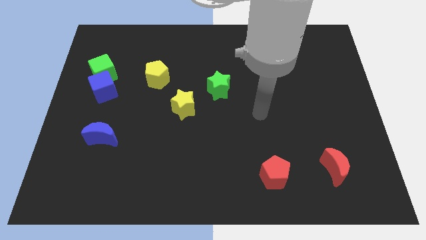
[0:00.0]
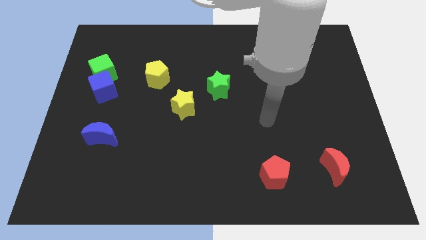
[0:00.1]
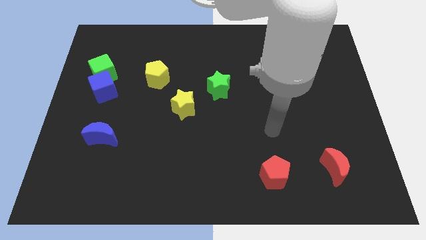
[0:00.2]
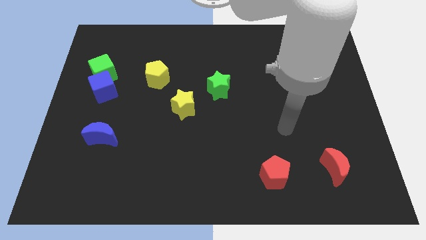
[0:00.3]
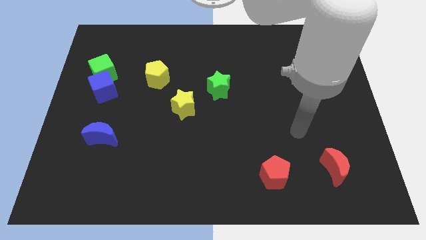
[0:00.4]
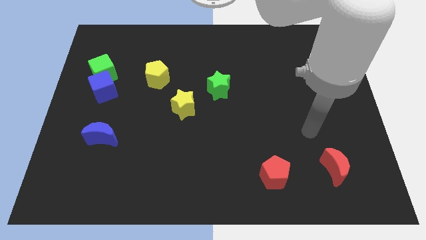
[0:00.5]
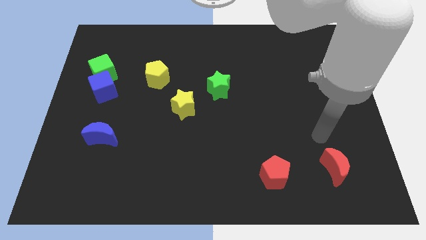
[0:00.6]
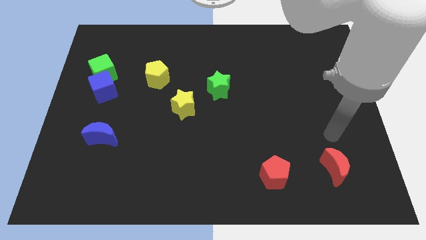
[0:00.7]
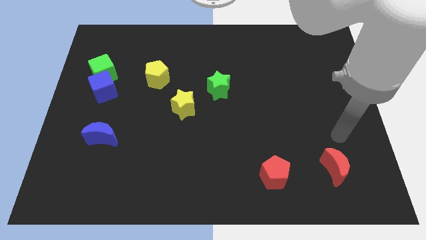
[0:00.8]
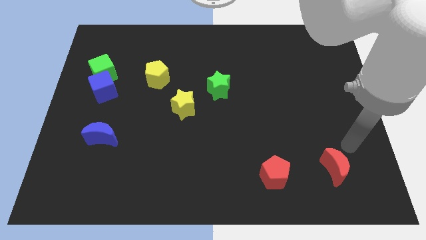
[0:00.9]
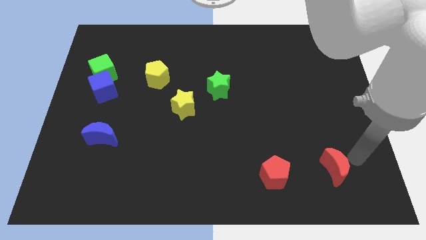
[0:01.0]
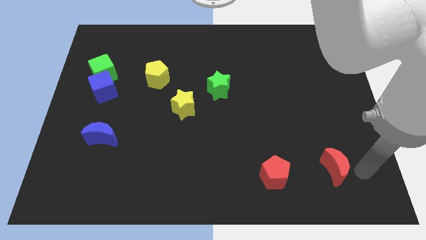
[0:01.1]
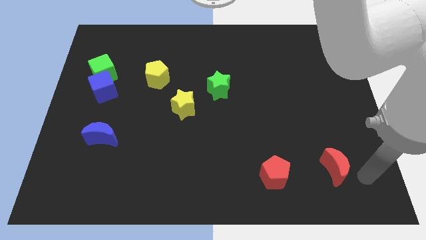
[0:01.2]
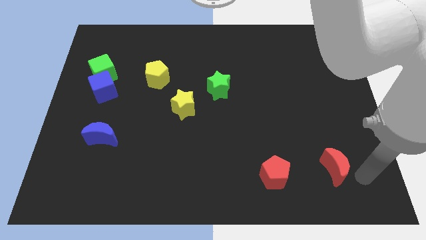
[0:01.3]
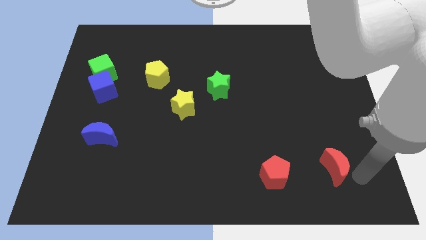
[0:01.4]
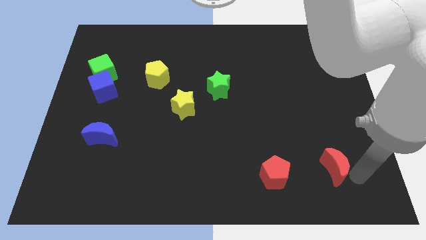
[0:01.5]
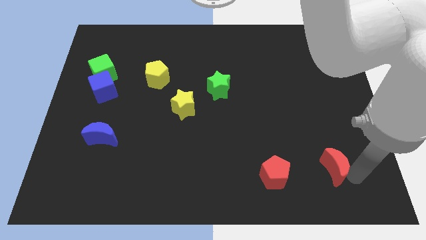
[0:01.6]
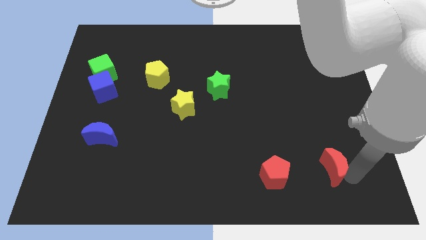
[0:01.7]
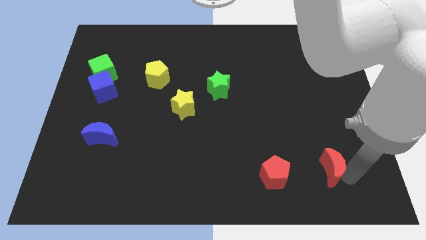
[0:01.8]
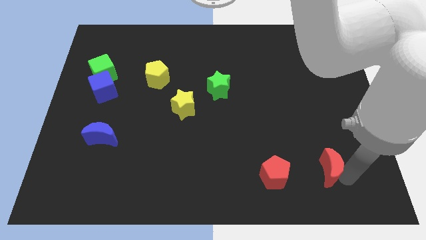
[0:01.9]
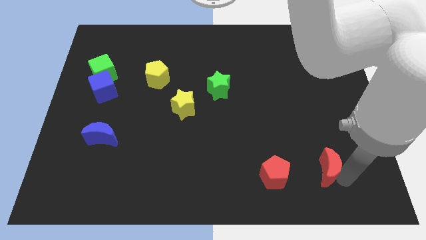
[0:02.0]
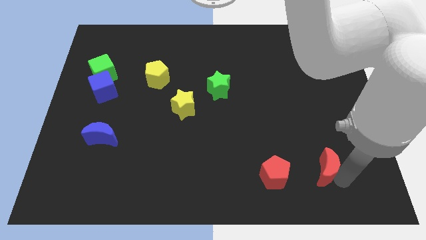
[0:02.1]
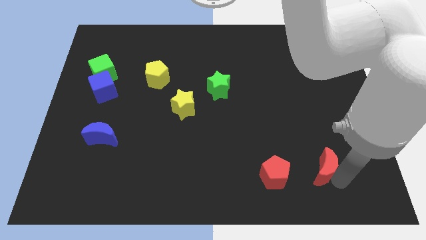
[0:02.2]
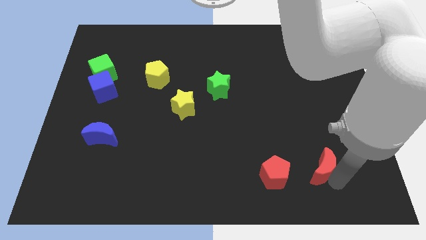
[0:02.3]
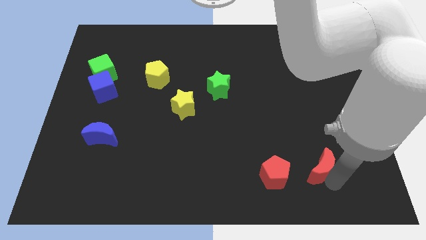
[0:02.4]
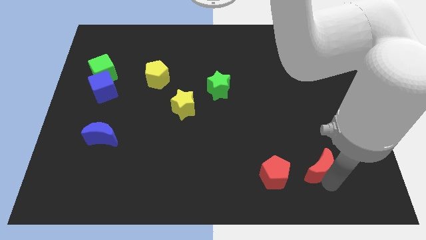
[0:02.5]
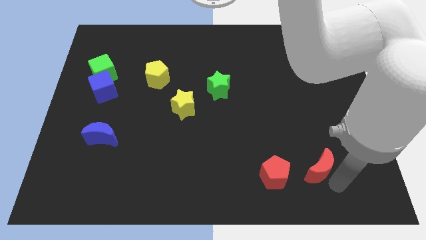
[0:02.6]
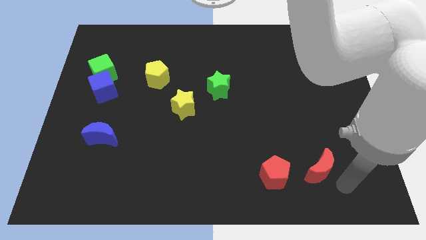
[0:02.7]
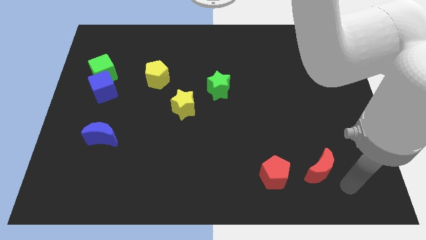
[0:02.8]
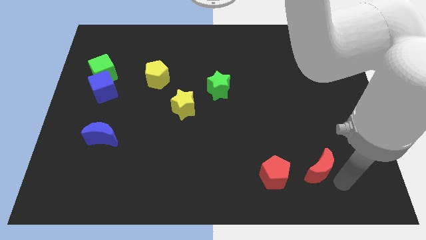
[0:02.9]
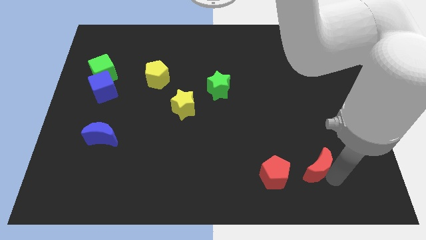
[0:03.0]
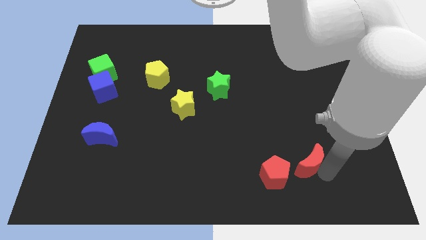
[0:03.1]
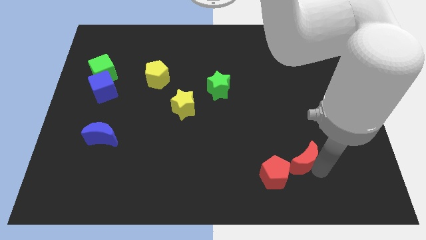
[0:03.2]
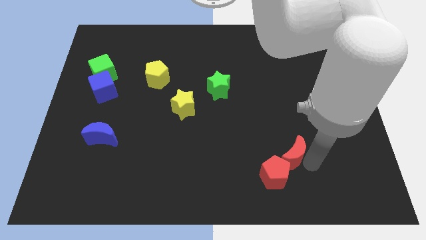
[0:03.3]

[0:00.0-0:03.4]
move the red moon left slightly

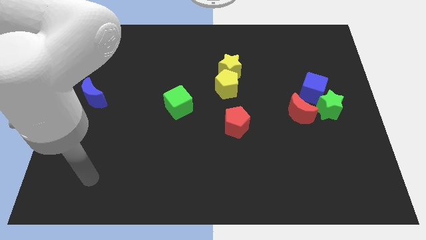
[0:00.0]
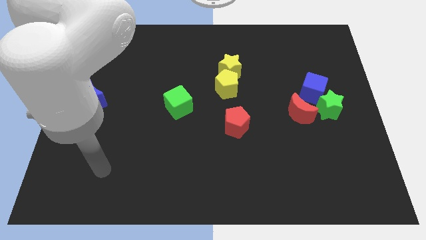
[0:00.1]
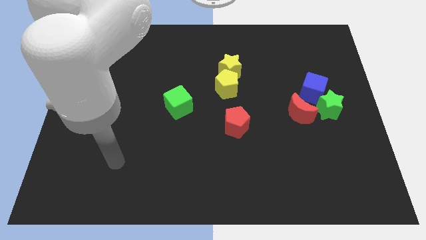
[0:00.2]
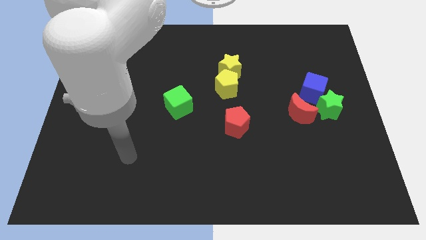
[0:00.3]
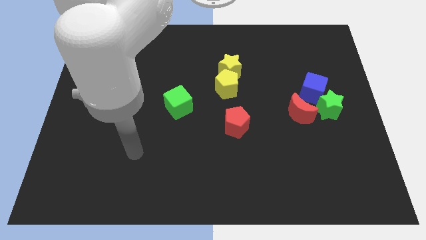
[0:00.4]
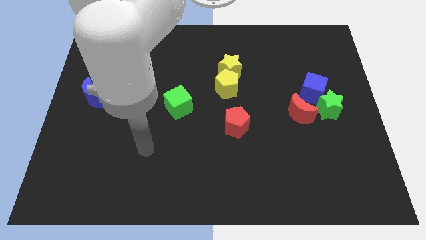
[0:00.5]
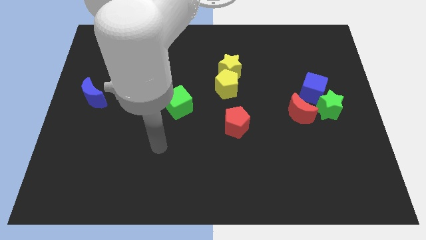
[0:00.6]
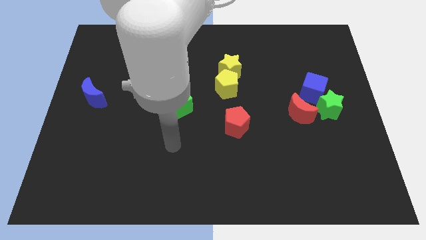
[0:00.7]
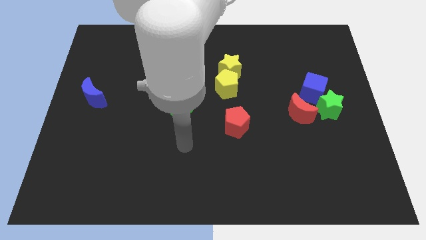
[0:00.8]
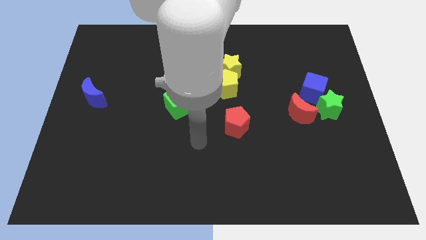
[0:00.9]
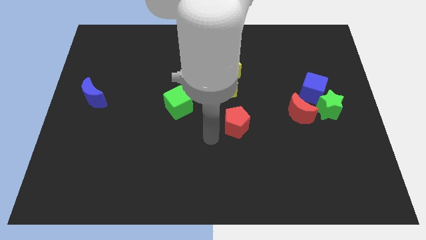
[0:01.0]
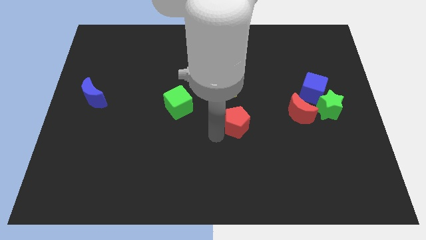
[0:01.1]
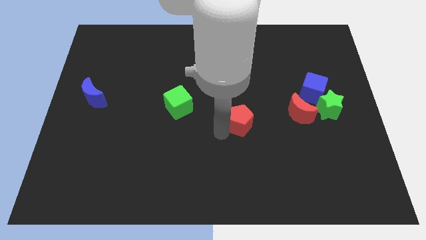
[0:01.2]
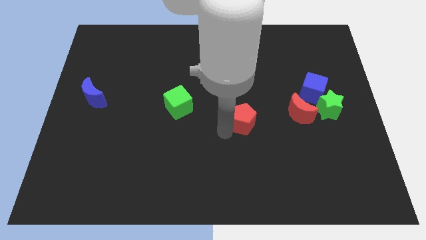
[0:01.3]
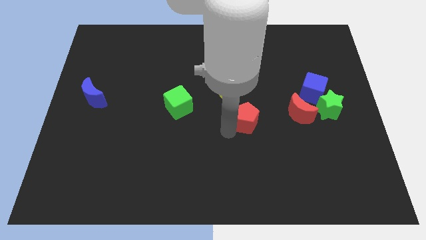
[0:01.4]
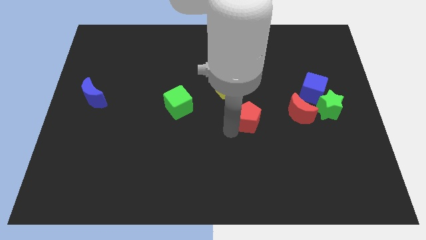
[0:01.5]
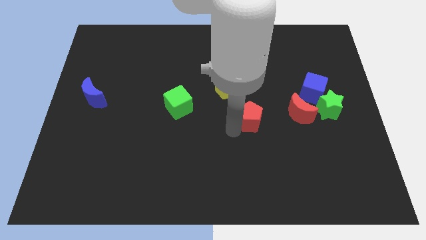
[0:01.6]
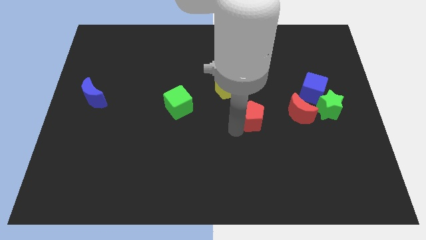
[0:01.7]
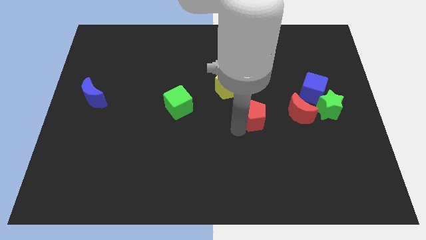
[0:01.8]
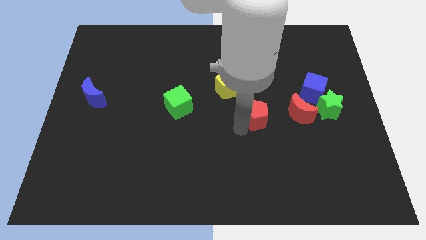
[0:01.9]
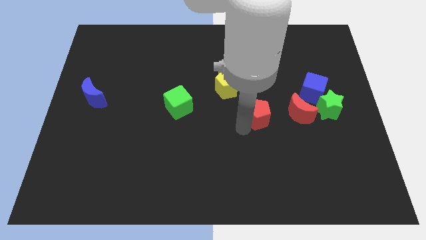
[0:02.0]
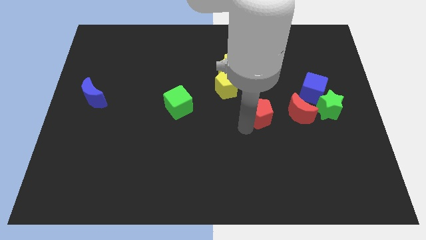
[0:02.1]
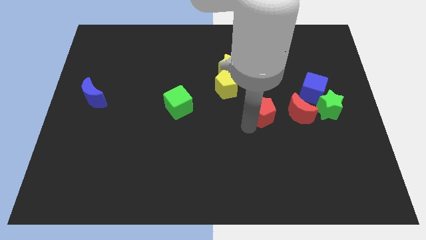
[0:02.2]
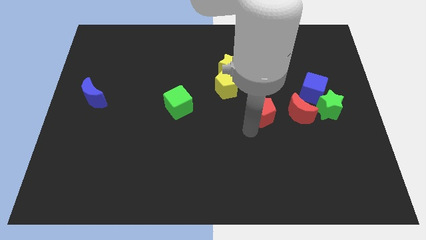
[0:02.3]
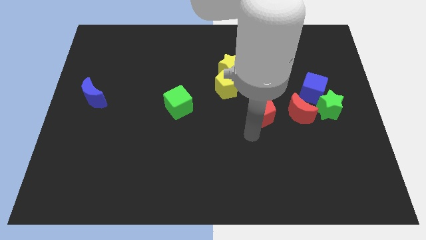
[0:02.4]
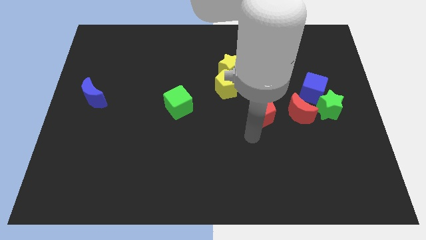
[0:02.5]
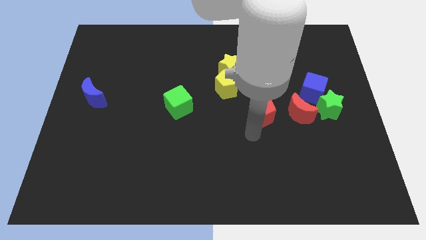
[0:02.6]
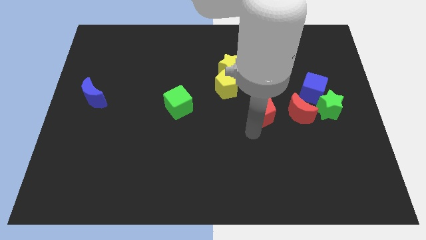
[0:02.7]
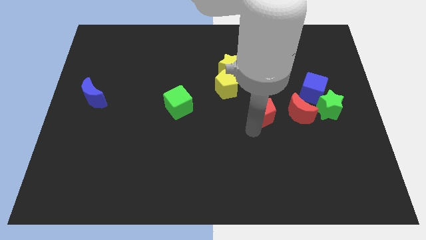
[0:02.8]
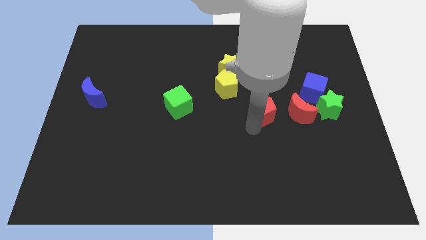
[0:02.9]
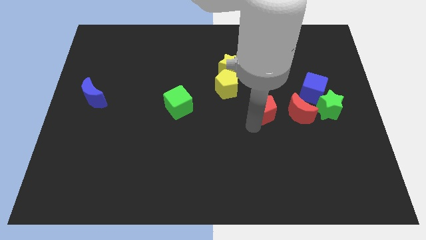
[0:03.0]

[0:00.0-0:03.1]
move the red pentagon somewhat up and to the right

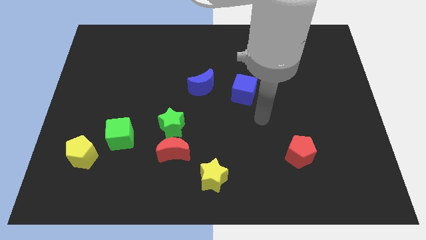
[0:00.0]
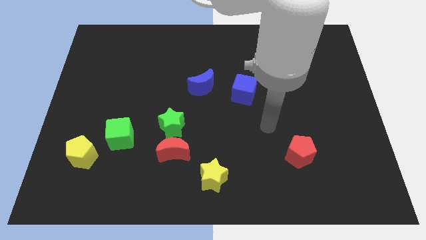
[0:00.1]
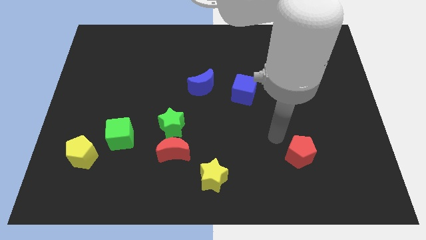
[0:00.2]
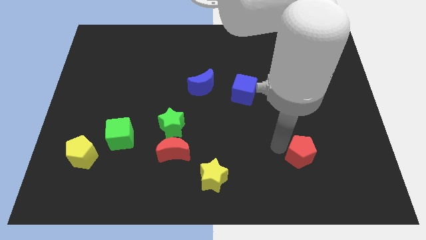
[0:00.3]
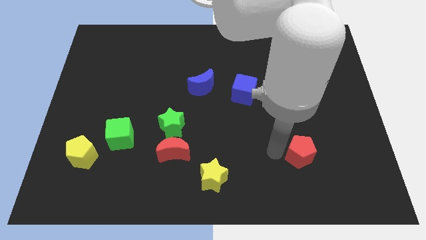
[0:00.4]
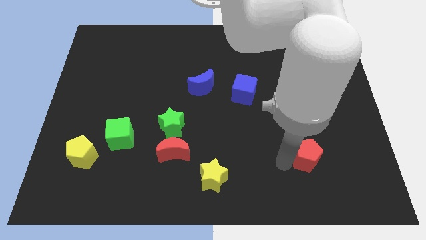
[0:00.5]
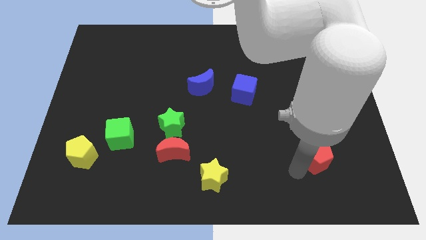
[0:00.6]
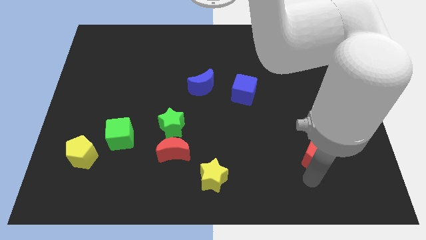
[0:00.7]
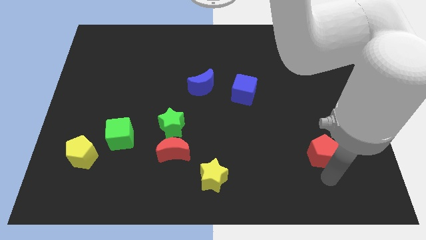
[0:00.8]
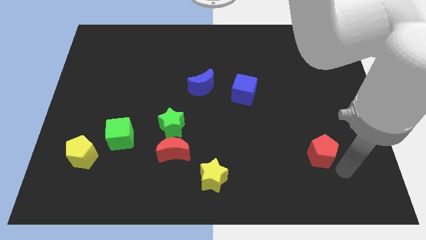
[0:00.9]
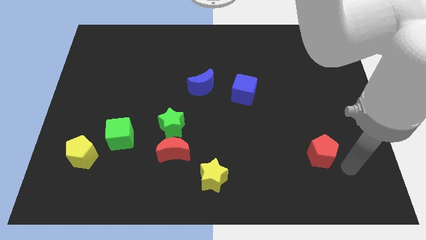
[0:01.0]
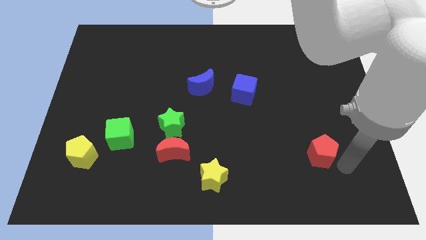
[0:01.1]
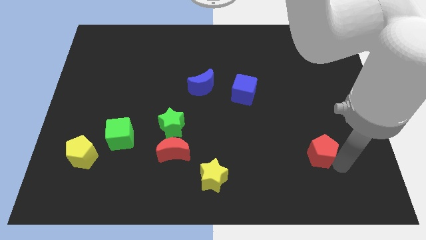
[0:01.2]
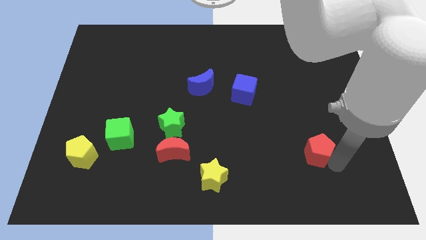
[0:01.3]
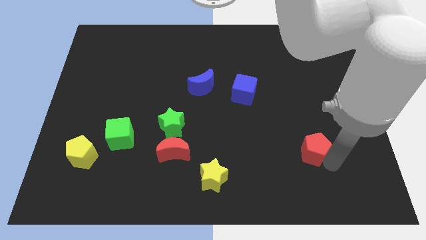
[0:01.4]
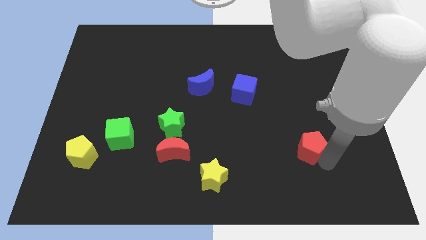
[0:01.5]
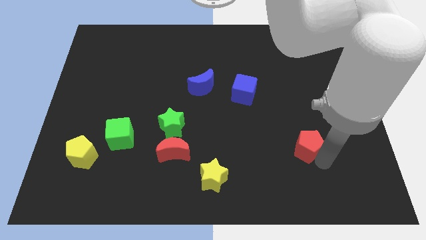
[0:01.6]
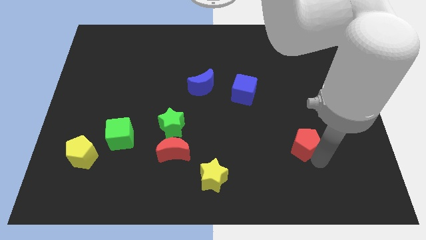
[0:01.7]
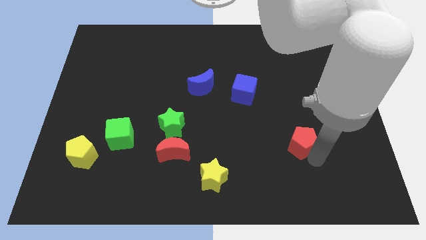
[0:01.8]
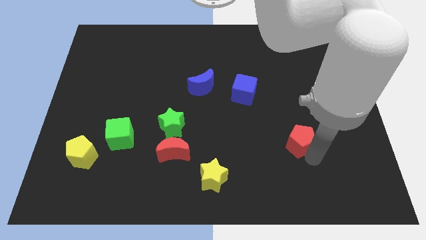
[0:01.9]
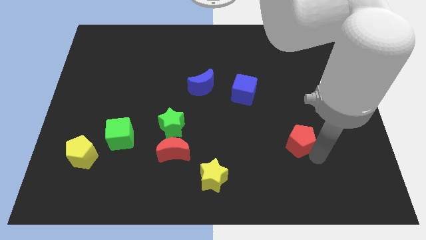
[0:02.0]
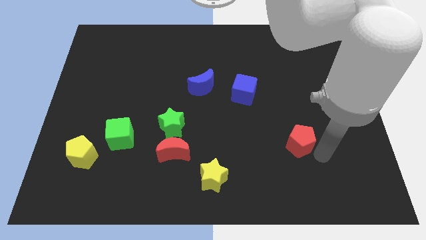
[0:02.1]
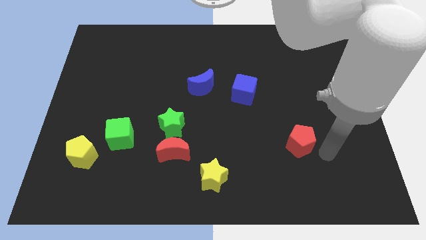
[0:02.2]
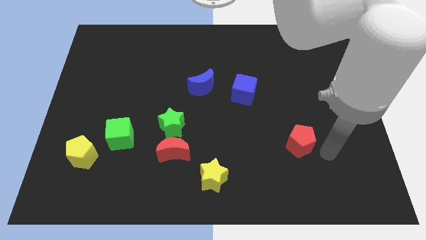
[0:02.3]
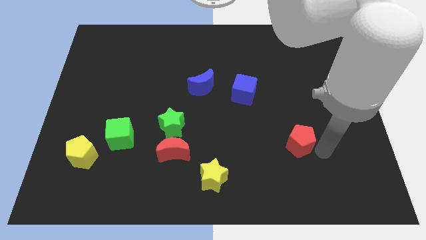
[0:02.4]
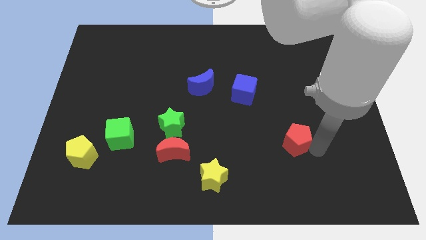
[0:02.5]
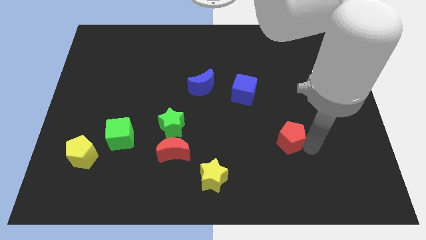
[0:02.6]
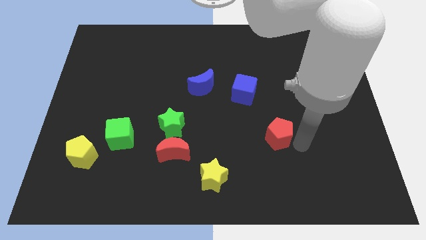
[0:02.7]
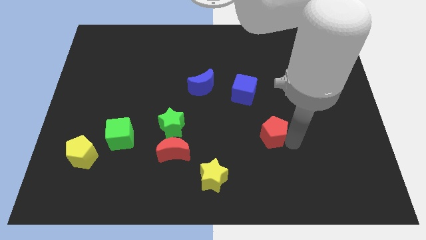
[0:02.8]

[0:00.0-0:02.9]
move the red pentagon a little bit upwards and to the left
